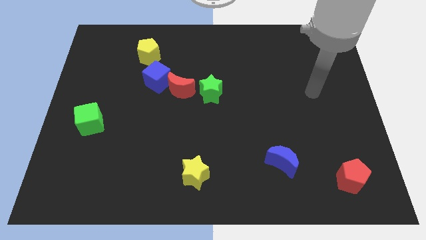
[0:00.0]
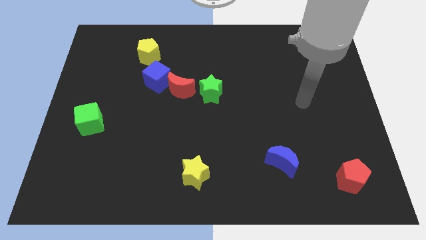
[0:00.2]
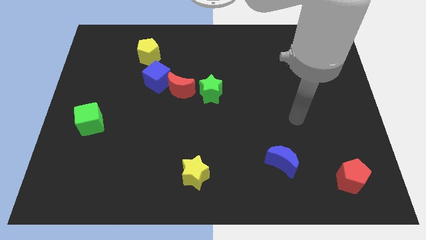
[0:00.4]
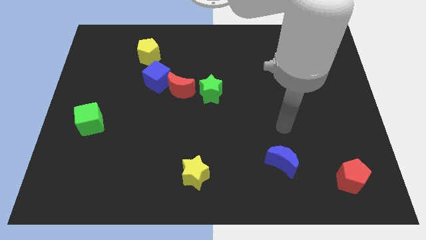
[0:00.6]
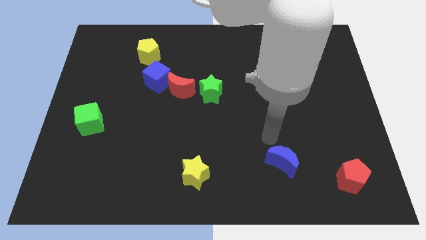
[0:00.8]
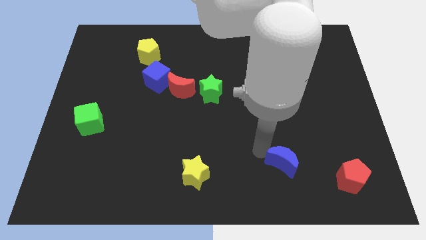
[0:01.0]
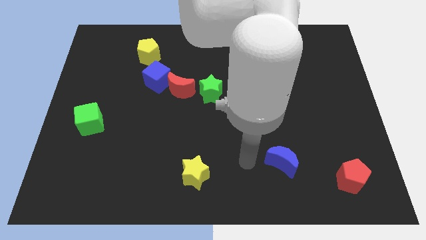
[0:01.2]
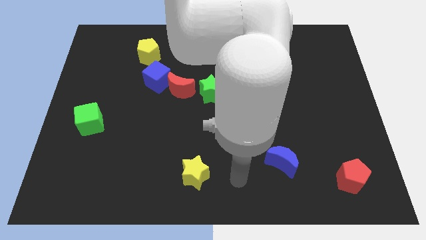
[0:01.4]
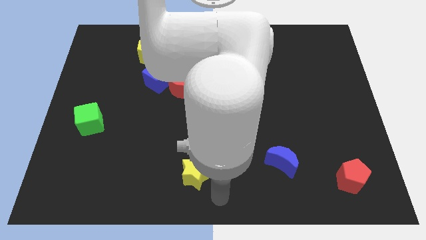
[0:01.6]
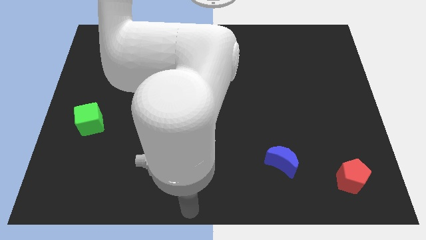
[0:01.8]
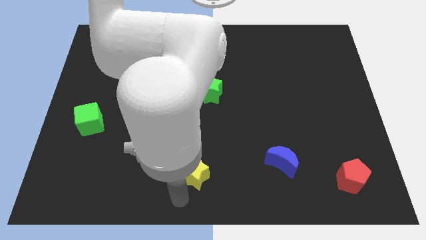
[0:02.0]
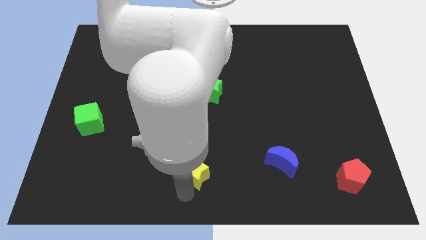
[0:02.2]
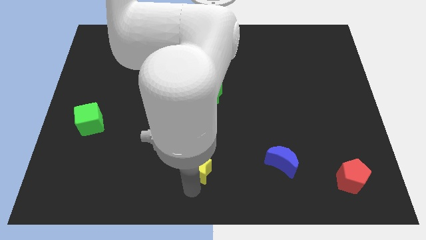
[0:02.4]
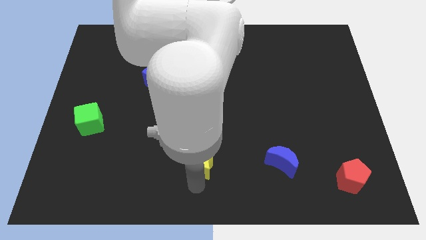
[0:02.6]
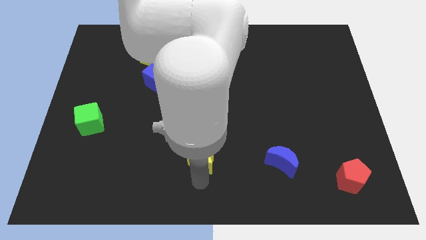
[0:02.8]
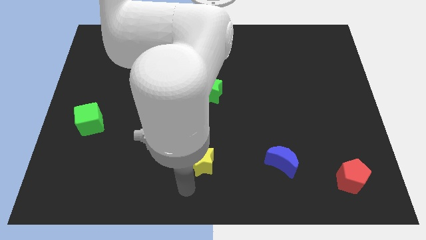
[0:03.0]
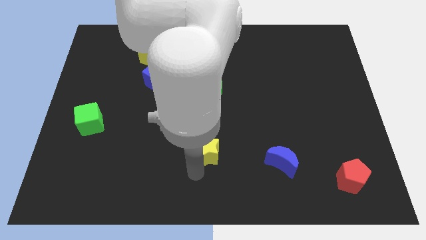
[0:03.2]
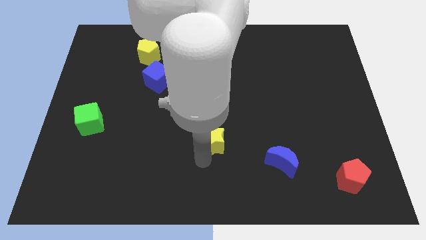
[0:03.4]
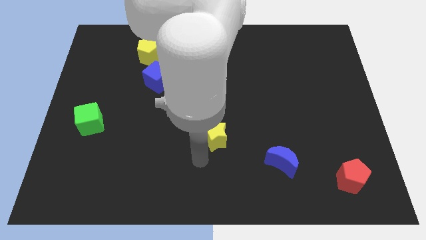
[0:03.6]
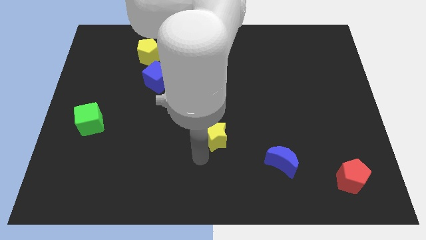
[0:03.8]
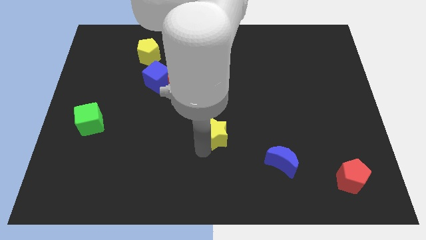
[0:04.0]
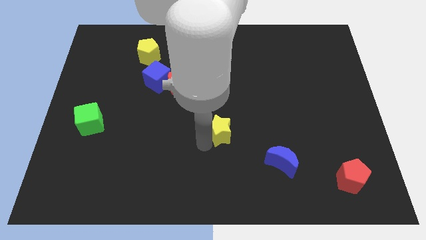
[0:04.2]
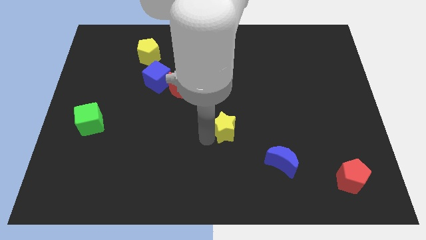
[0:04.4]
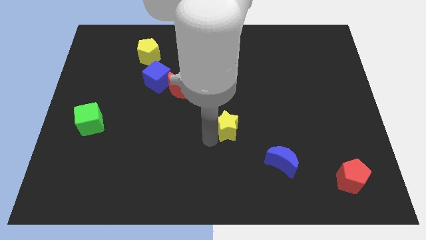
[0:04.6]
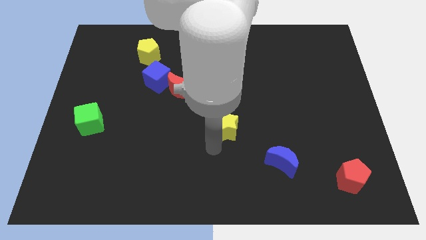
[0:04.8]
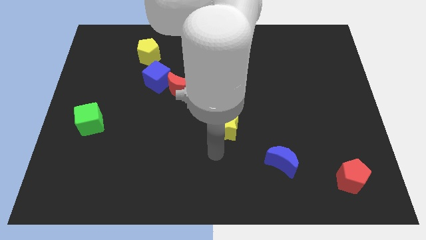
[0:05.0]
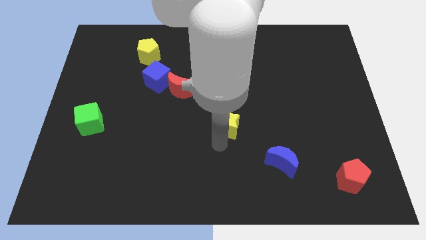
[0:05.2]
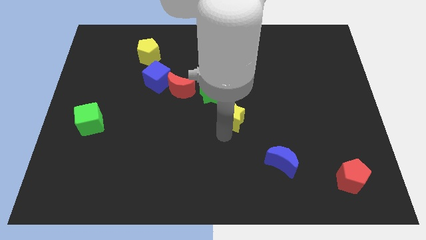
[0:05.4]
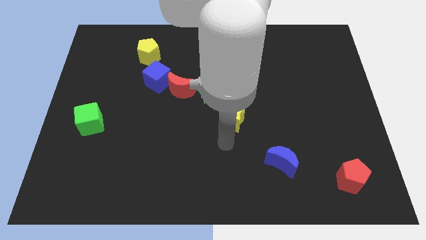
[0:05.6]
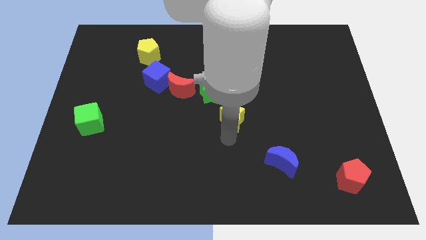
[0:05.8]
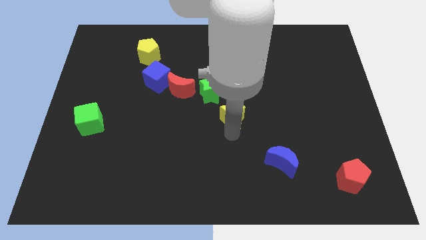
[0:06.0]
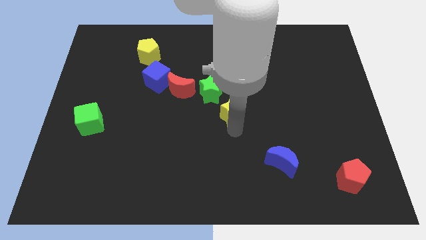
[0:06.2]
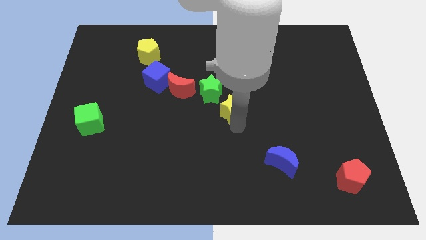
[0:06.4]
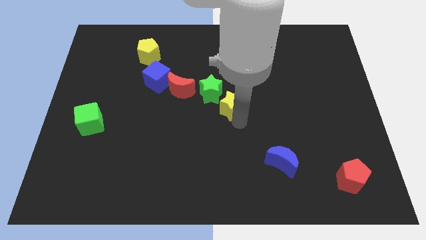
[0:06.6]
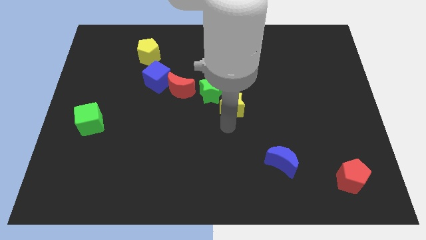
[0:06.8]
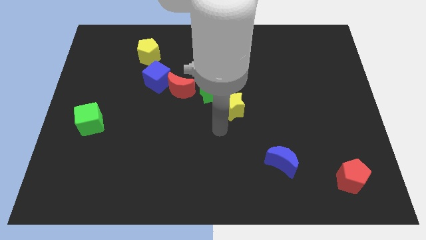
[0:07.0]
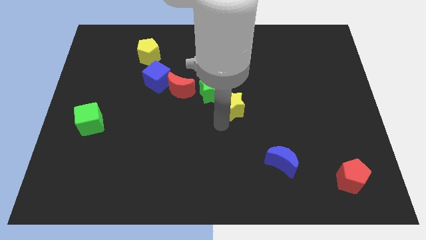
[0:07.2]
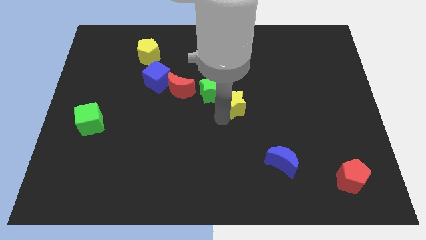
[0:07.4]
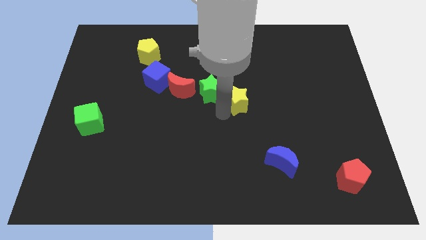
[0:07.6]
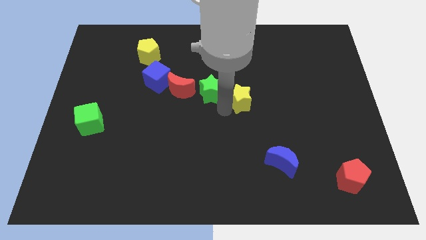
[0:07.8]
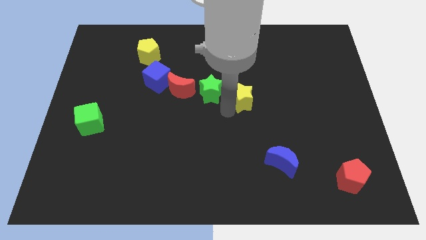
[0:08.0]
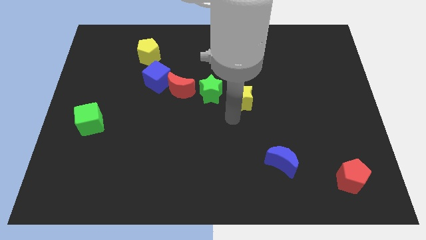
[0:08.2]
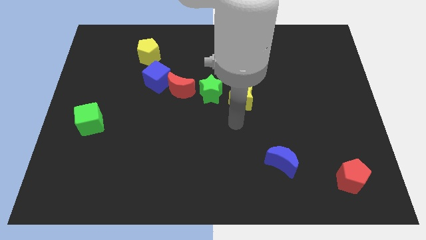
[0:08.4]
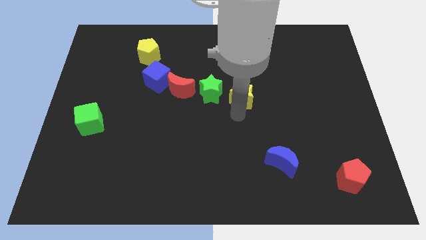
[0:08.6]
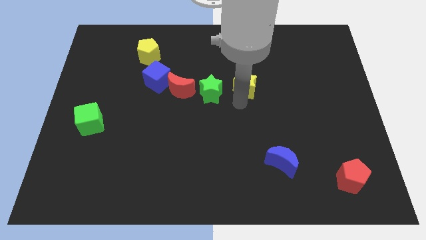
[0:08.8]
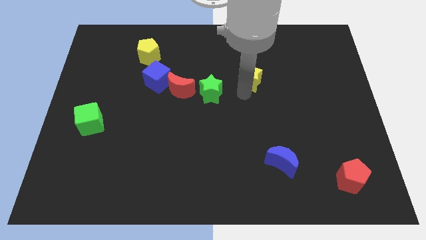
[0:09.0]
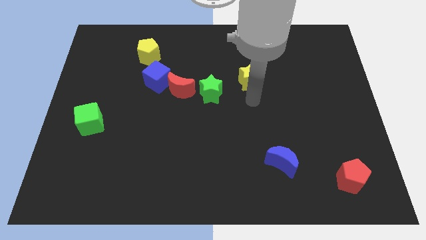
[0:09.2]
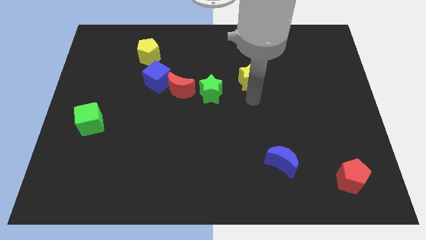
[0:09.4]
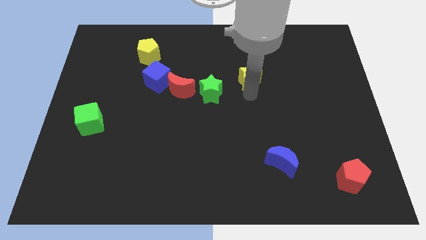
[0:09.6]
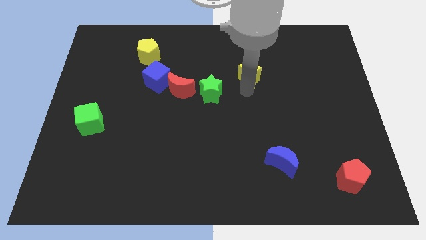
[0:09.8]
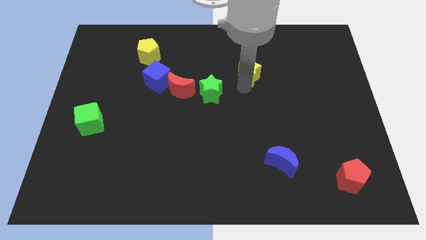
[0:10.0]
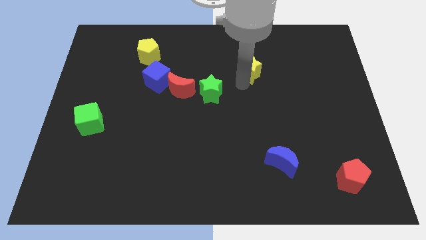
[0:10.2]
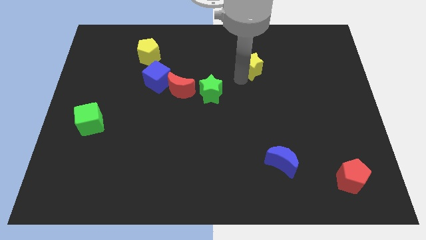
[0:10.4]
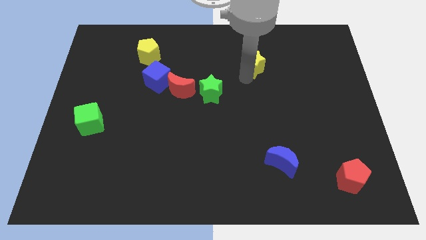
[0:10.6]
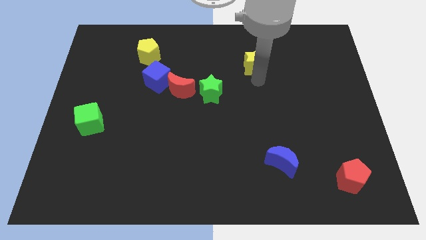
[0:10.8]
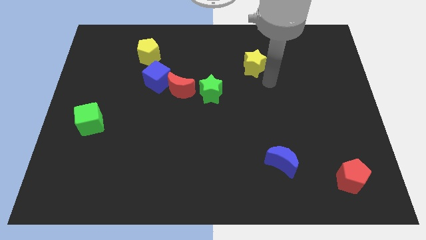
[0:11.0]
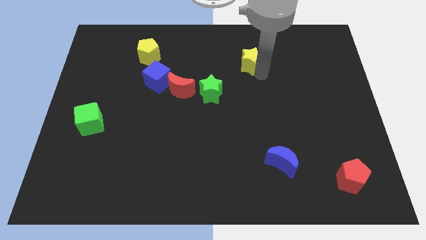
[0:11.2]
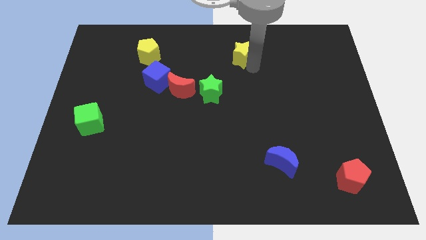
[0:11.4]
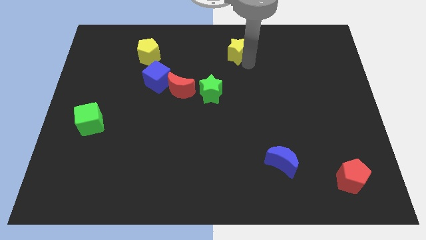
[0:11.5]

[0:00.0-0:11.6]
slide the yellow star to the top side
